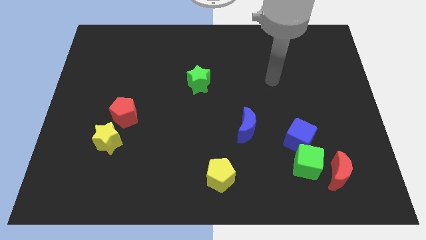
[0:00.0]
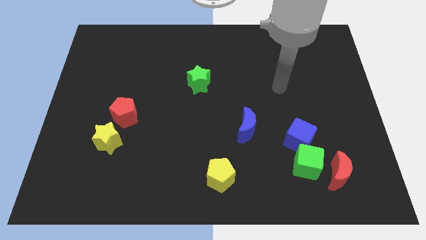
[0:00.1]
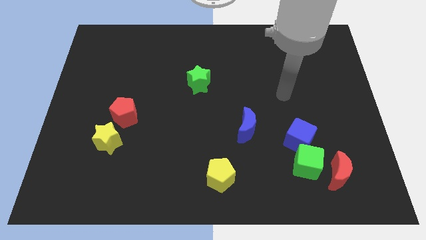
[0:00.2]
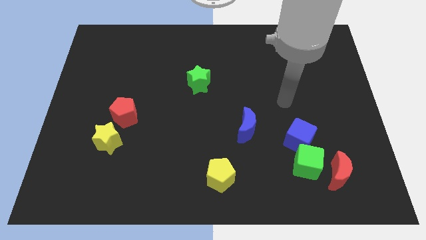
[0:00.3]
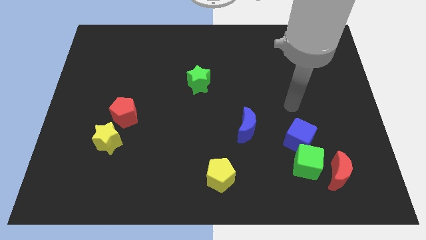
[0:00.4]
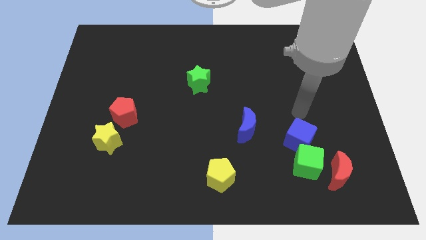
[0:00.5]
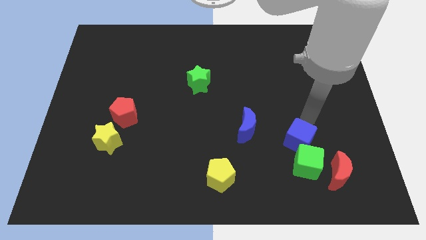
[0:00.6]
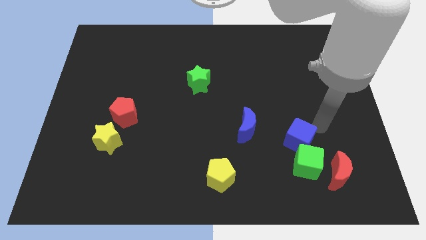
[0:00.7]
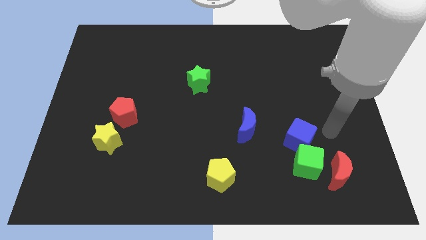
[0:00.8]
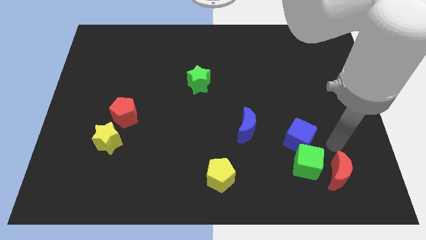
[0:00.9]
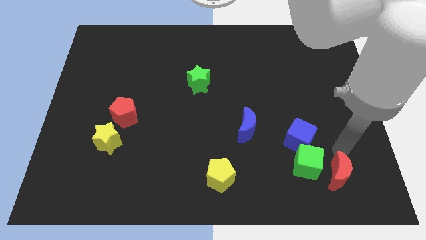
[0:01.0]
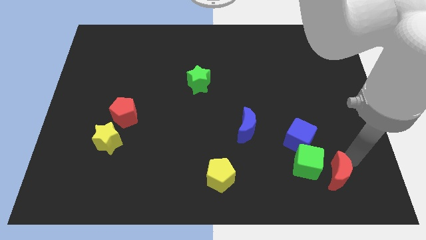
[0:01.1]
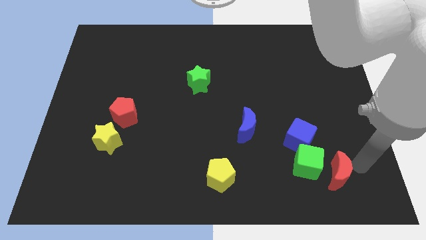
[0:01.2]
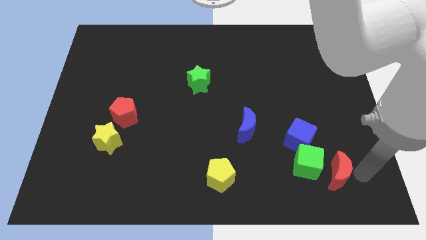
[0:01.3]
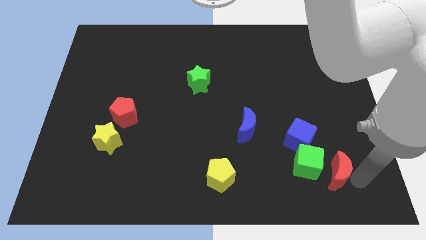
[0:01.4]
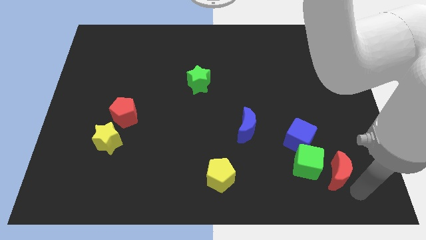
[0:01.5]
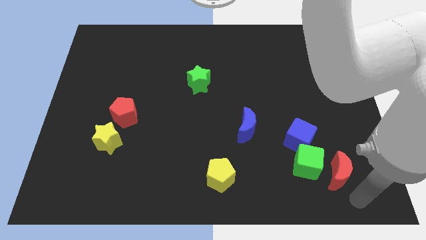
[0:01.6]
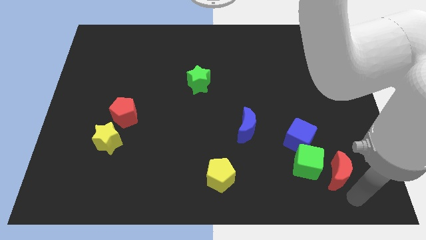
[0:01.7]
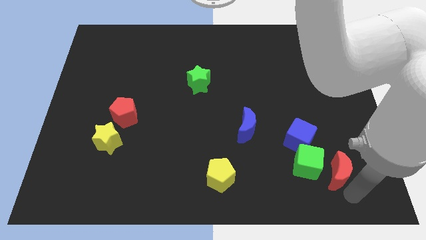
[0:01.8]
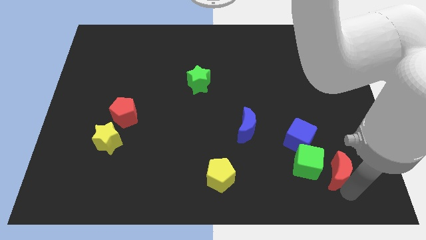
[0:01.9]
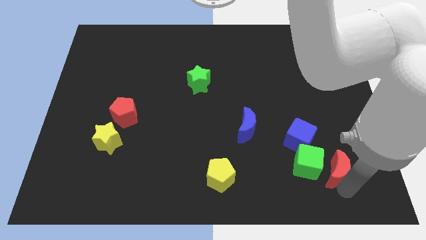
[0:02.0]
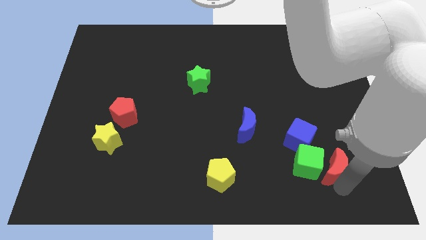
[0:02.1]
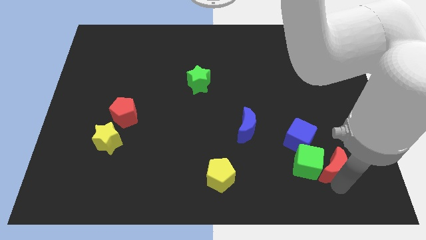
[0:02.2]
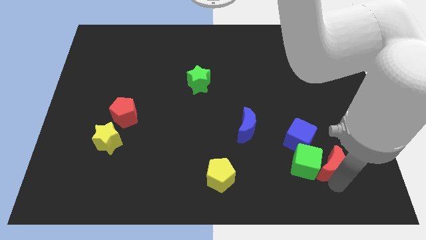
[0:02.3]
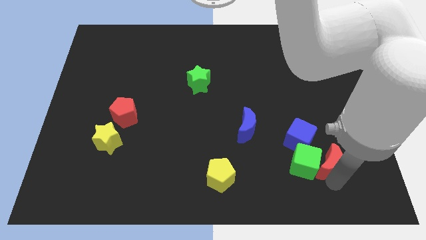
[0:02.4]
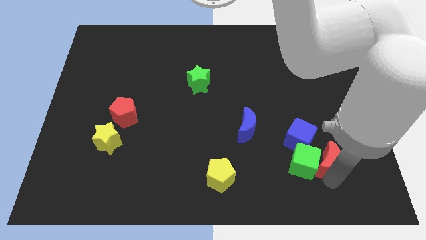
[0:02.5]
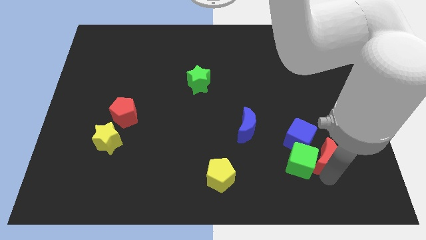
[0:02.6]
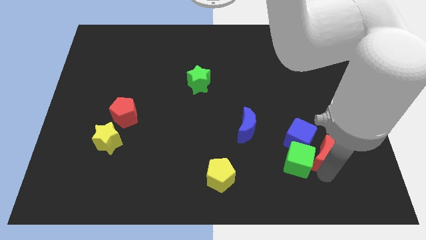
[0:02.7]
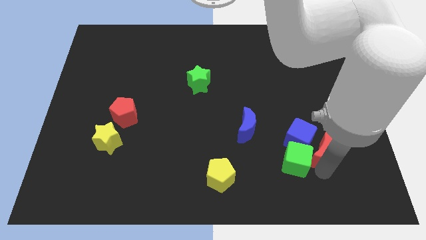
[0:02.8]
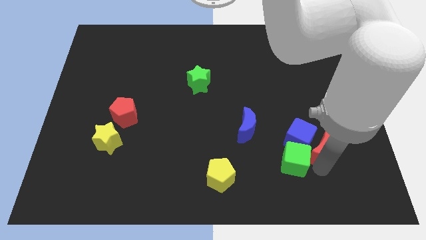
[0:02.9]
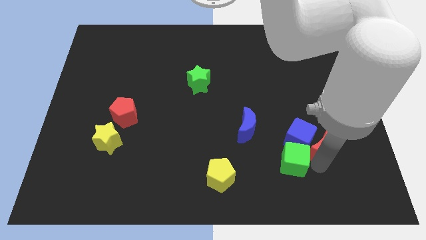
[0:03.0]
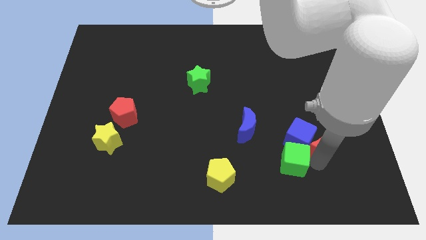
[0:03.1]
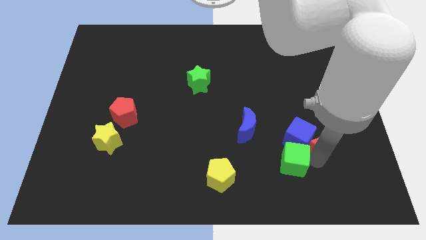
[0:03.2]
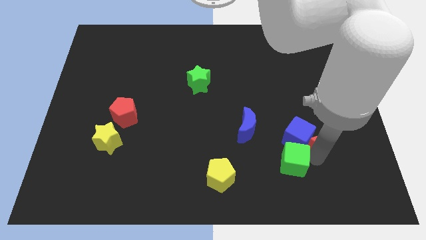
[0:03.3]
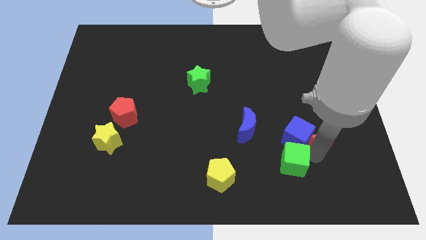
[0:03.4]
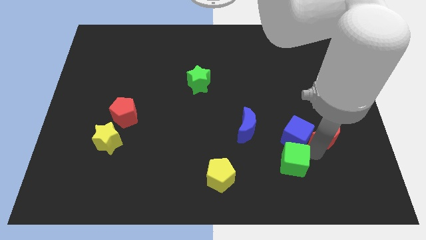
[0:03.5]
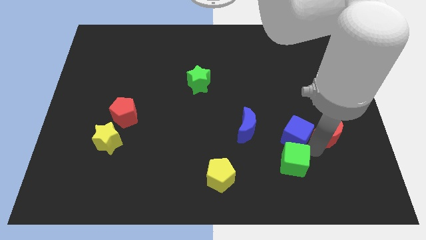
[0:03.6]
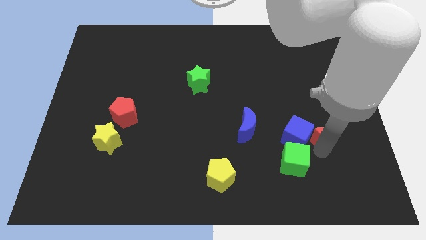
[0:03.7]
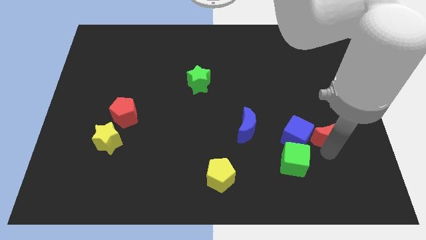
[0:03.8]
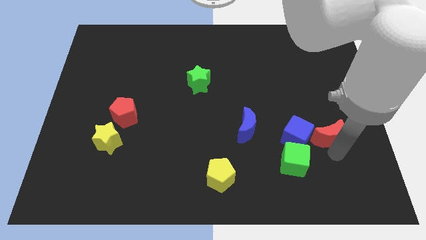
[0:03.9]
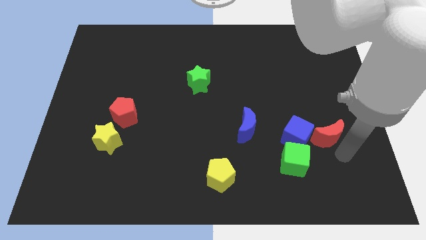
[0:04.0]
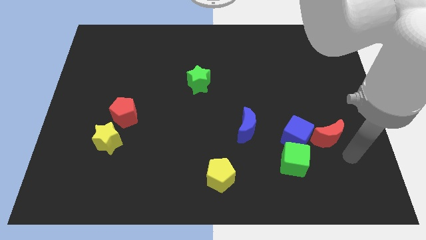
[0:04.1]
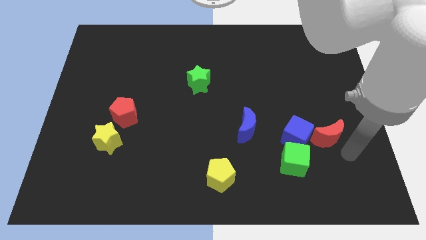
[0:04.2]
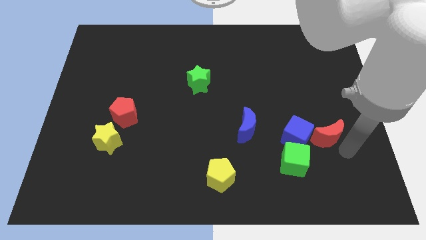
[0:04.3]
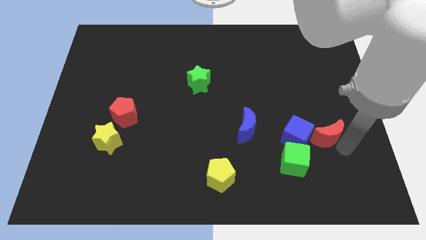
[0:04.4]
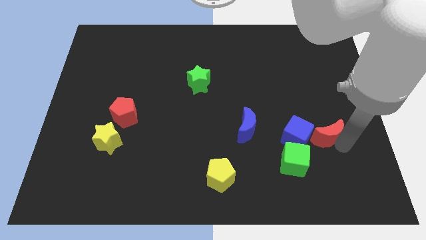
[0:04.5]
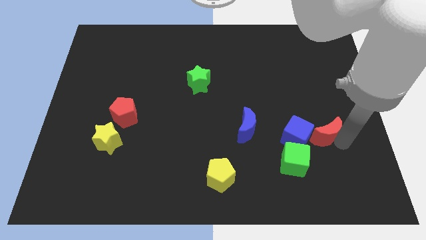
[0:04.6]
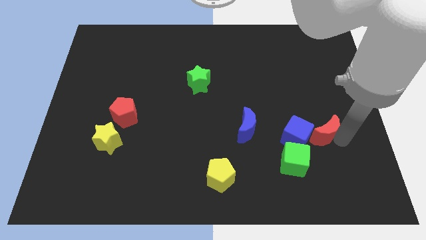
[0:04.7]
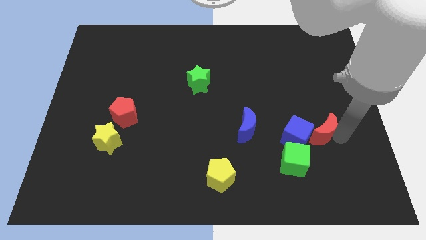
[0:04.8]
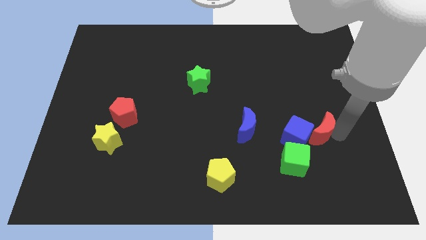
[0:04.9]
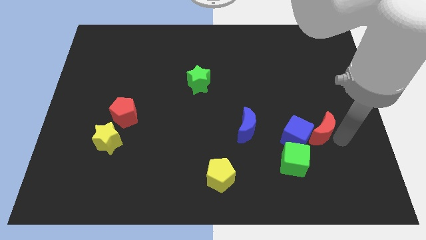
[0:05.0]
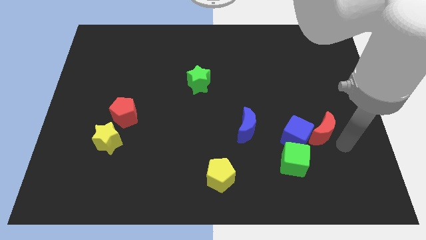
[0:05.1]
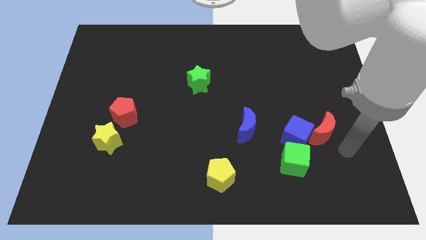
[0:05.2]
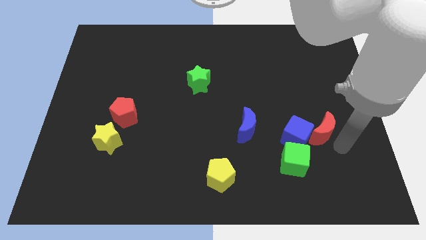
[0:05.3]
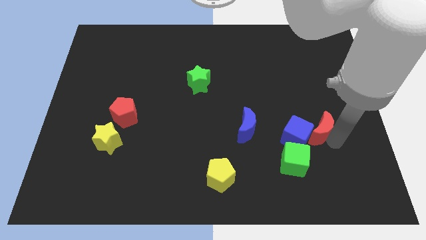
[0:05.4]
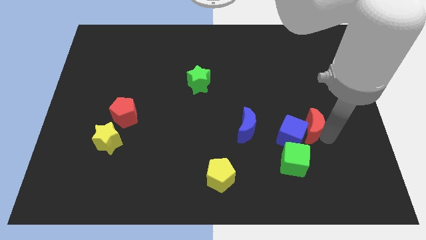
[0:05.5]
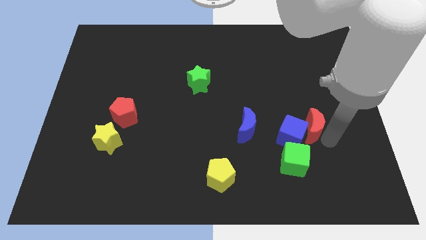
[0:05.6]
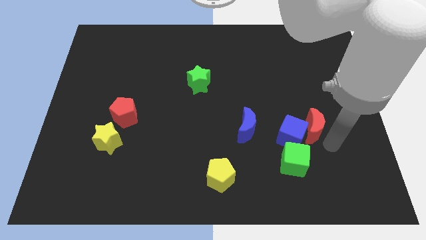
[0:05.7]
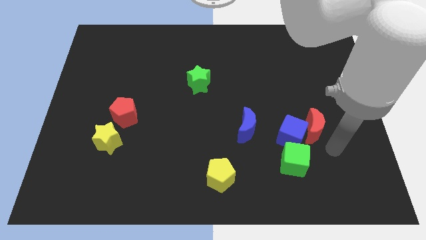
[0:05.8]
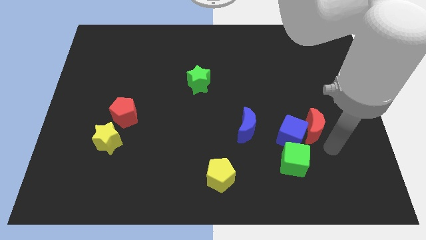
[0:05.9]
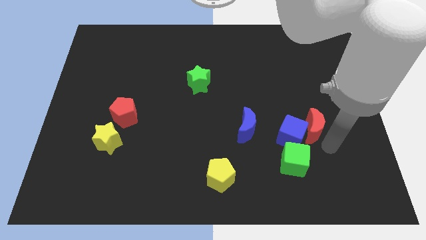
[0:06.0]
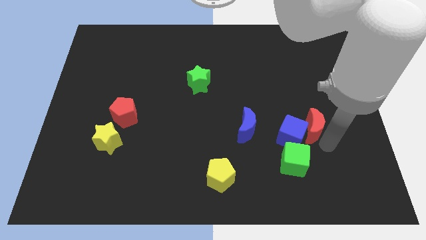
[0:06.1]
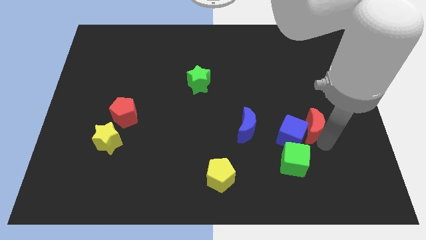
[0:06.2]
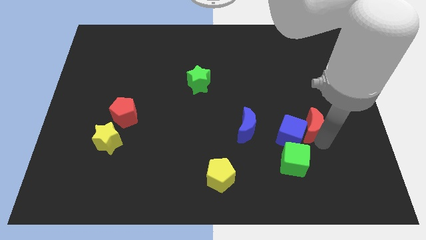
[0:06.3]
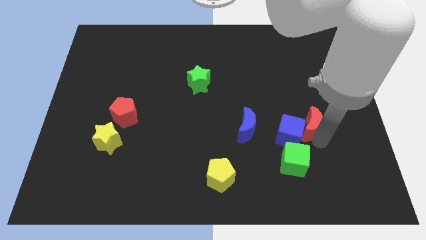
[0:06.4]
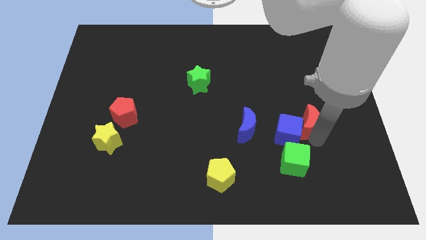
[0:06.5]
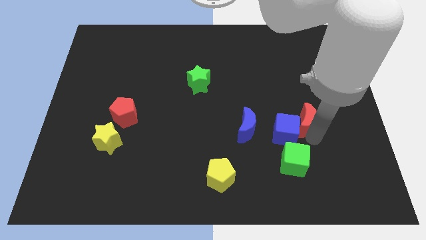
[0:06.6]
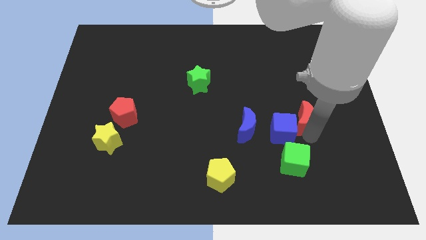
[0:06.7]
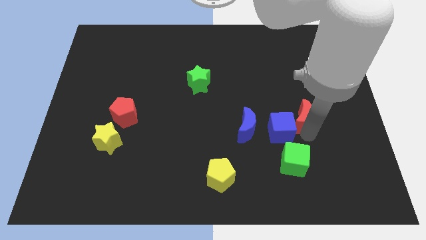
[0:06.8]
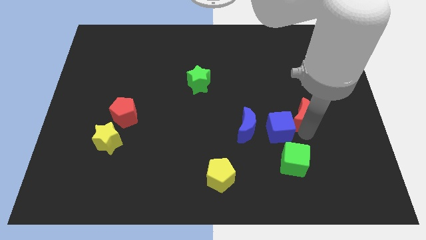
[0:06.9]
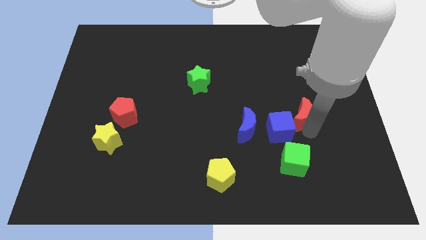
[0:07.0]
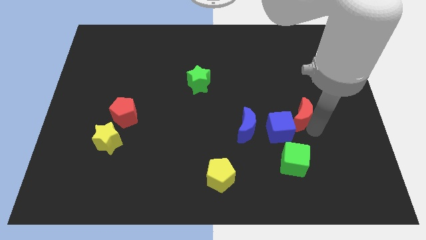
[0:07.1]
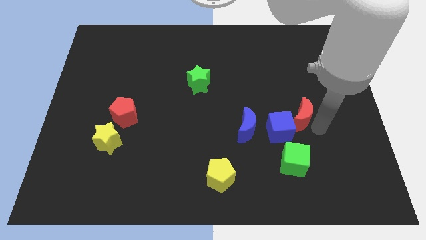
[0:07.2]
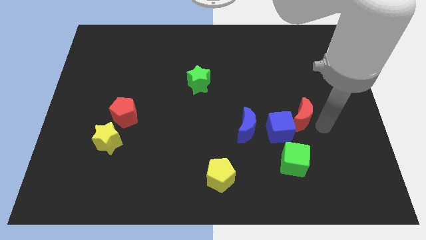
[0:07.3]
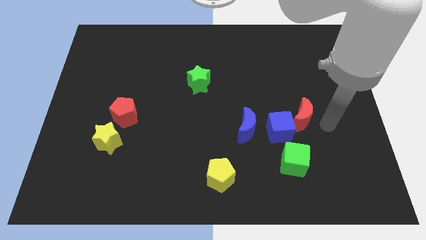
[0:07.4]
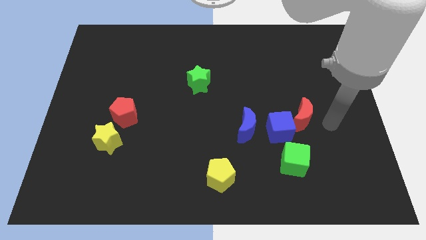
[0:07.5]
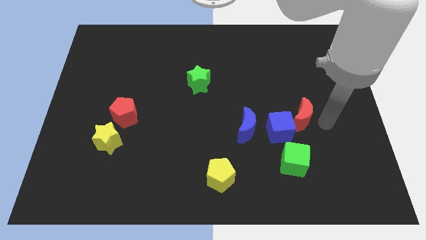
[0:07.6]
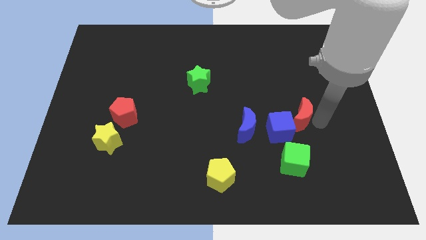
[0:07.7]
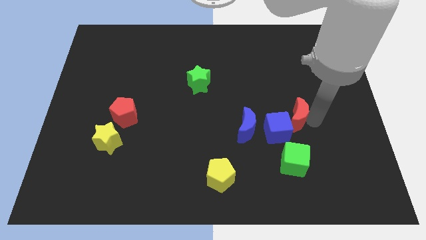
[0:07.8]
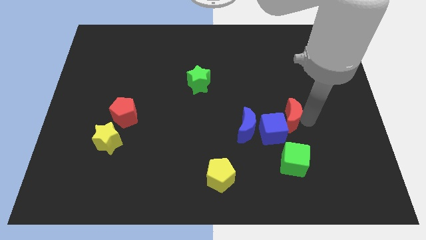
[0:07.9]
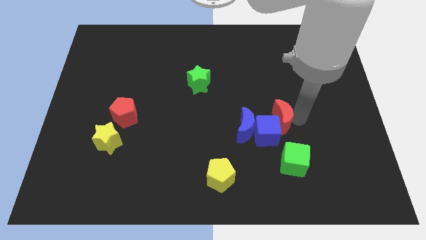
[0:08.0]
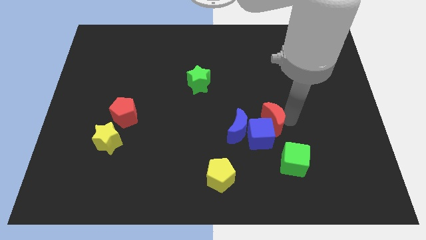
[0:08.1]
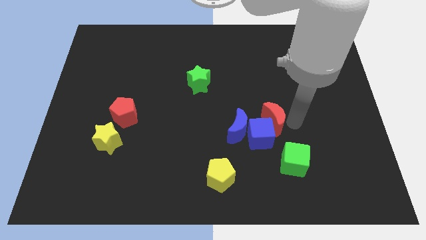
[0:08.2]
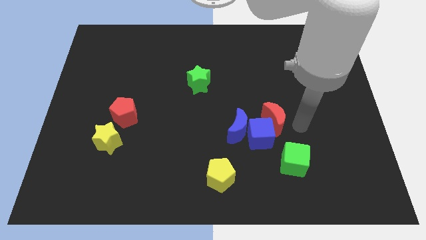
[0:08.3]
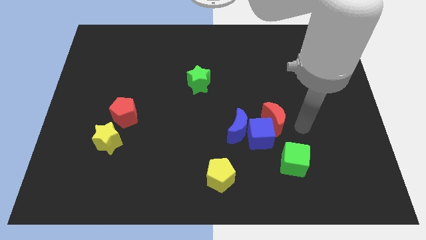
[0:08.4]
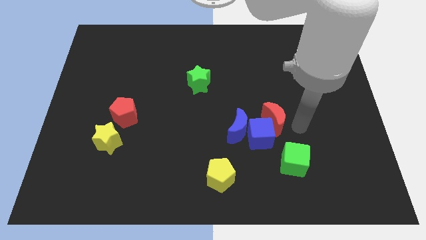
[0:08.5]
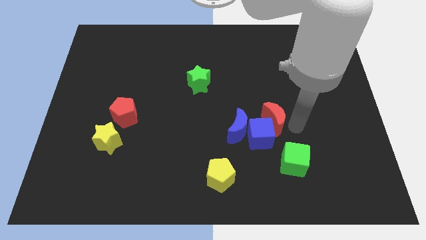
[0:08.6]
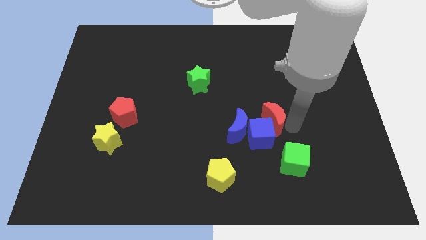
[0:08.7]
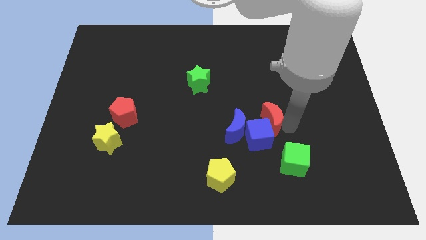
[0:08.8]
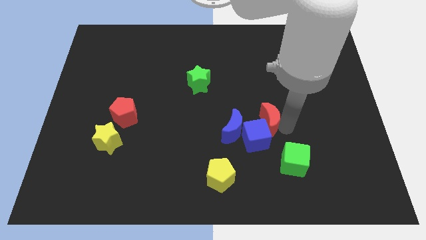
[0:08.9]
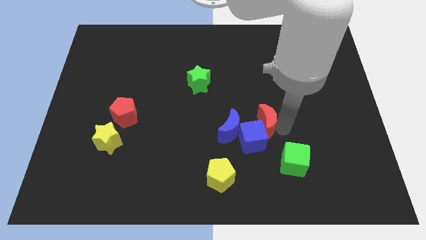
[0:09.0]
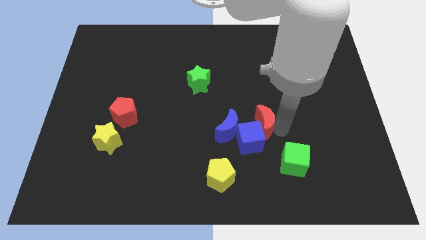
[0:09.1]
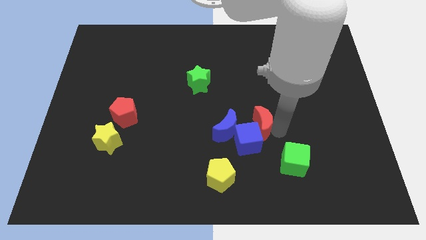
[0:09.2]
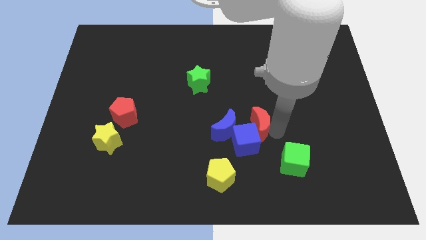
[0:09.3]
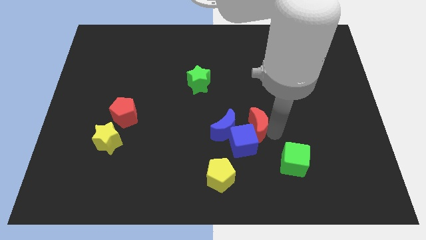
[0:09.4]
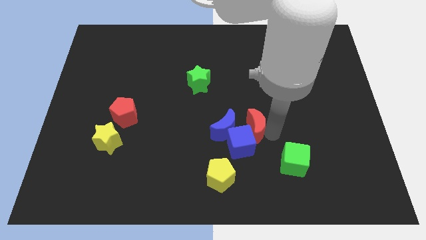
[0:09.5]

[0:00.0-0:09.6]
push the red moon to the center
